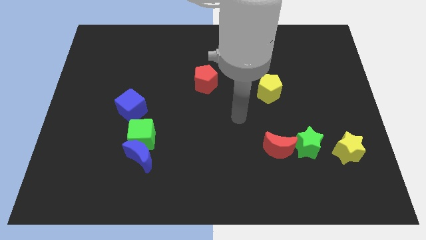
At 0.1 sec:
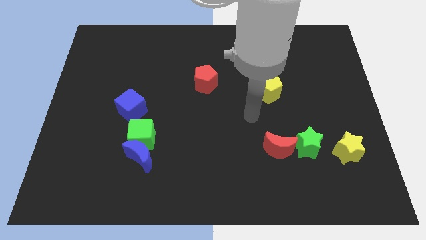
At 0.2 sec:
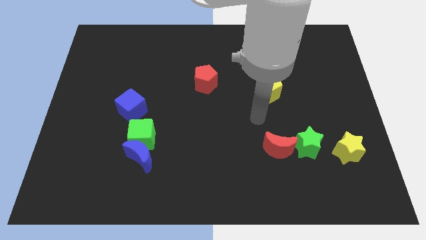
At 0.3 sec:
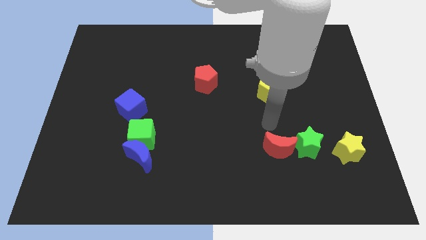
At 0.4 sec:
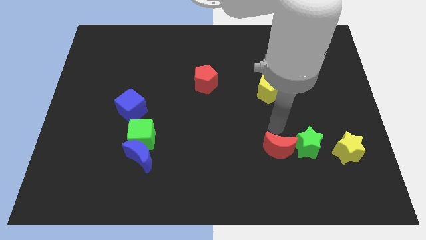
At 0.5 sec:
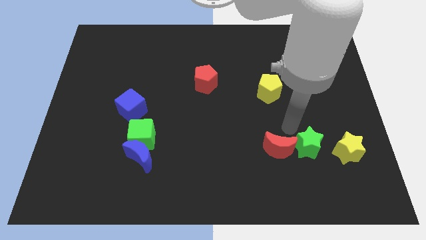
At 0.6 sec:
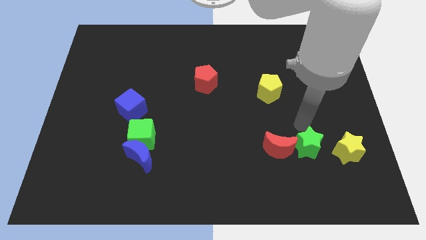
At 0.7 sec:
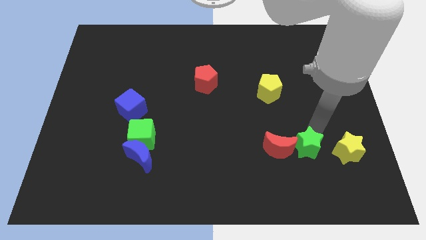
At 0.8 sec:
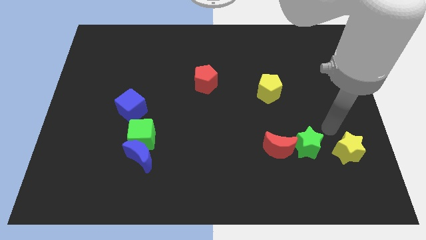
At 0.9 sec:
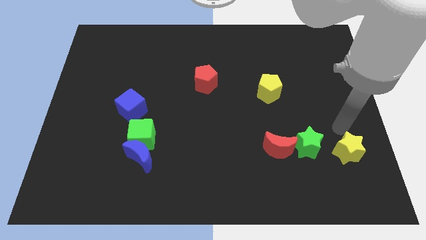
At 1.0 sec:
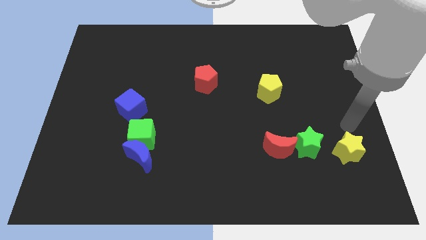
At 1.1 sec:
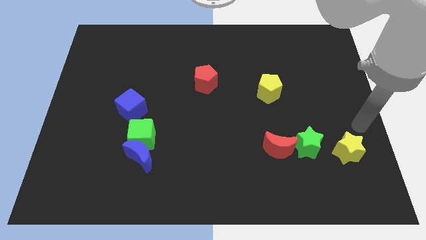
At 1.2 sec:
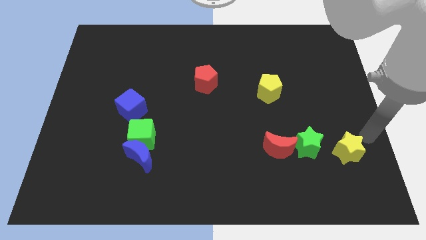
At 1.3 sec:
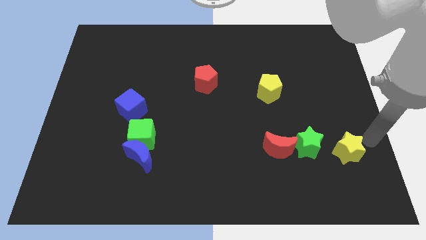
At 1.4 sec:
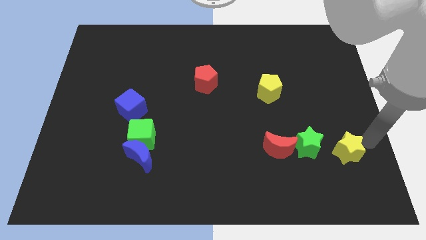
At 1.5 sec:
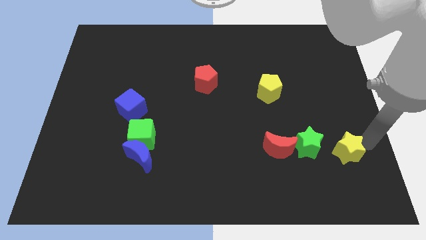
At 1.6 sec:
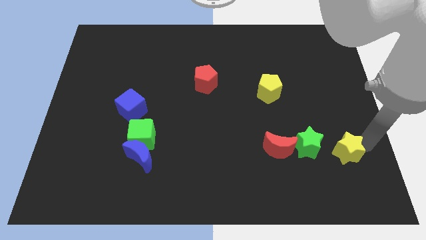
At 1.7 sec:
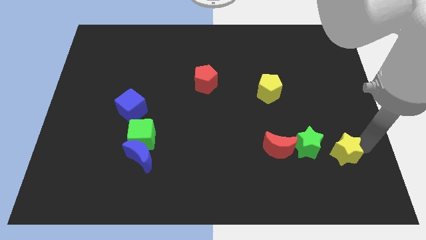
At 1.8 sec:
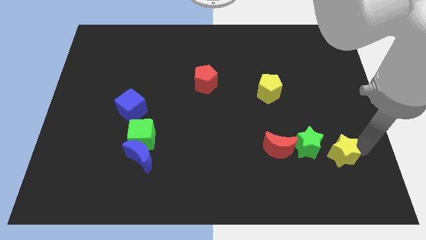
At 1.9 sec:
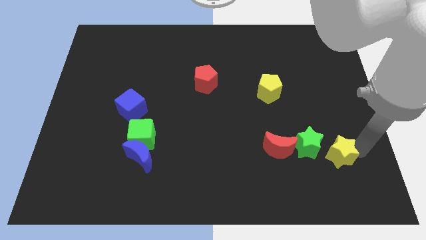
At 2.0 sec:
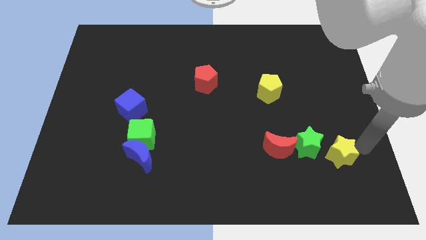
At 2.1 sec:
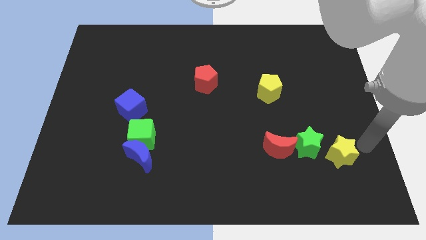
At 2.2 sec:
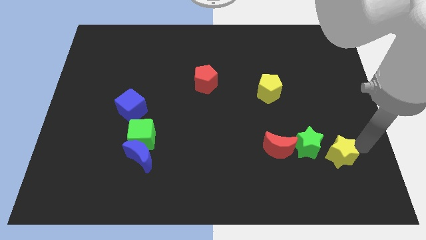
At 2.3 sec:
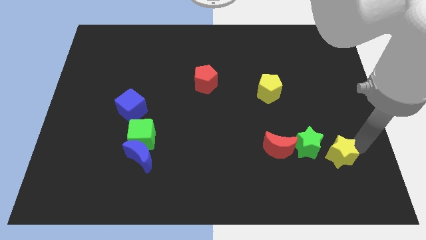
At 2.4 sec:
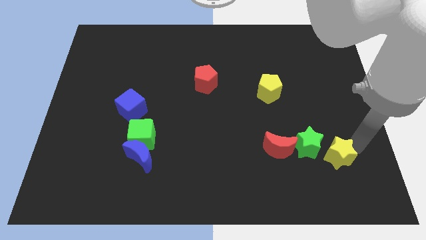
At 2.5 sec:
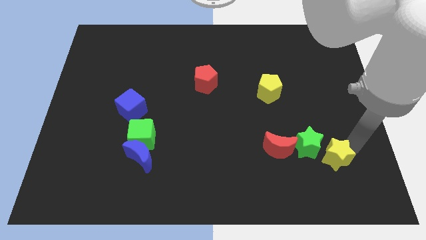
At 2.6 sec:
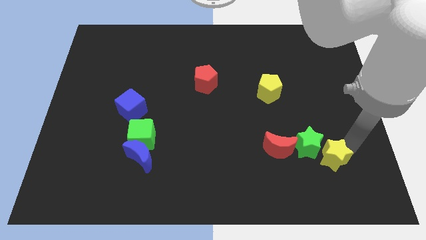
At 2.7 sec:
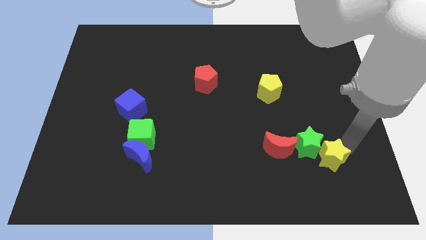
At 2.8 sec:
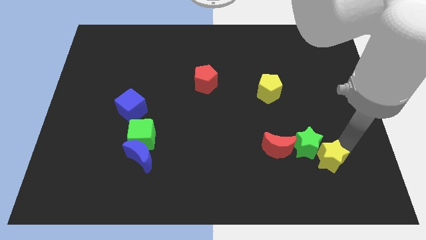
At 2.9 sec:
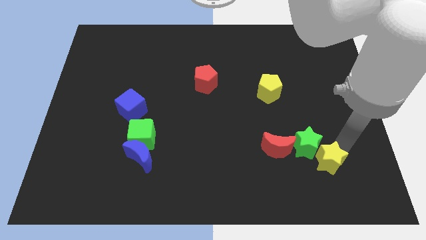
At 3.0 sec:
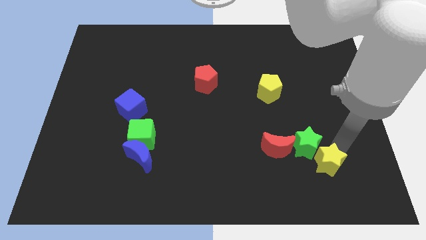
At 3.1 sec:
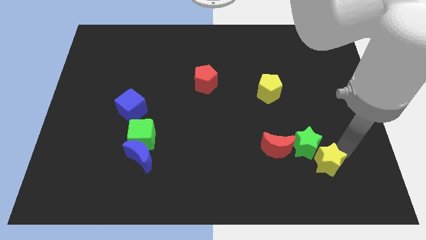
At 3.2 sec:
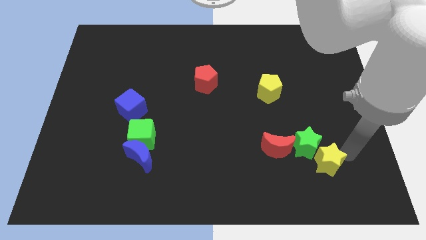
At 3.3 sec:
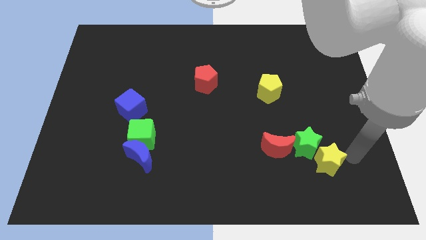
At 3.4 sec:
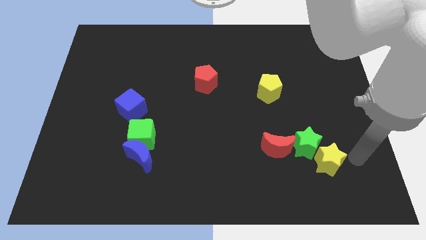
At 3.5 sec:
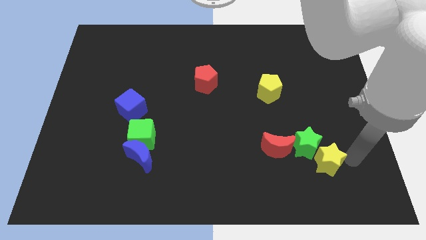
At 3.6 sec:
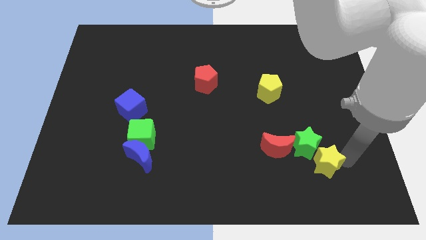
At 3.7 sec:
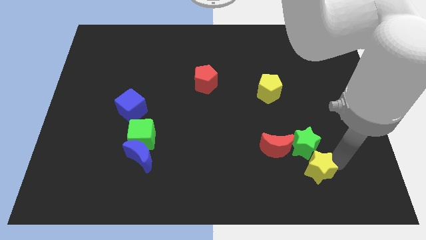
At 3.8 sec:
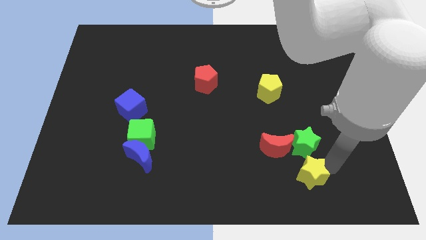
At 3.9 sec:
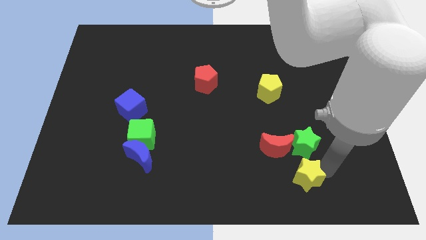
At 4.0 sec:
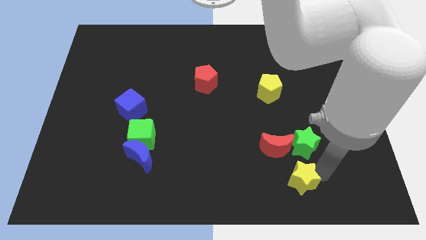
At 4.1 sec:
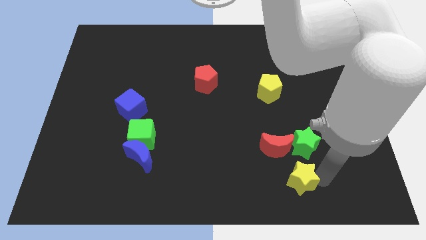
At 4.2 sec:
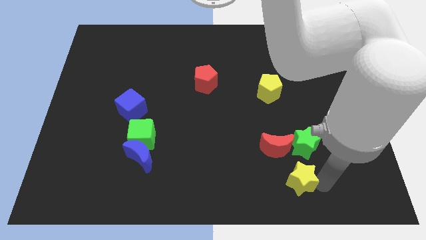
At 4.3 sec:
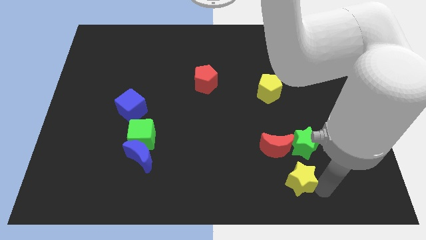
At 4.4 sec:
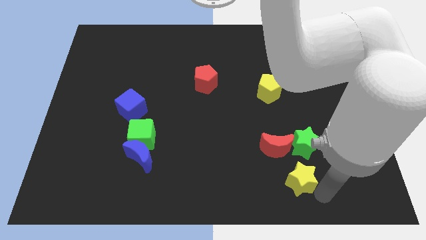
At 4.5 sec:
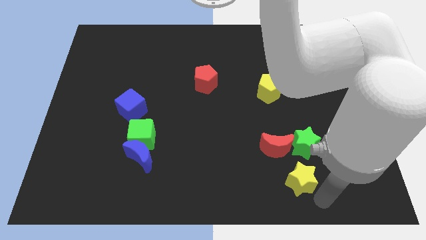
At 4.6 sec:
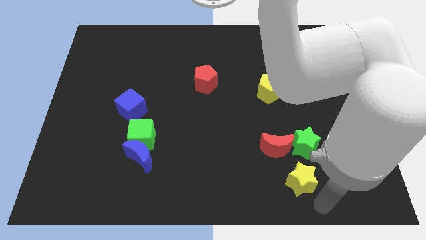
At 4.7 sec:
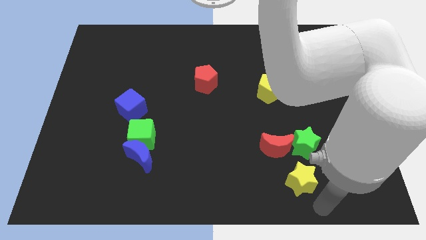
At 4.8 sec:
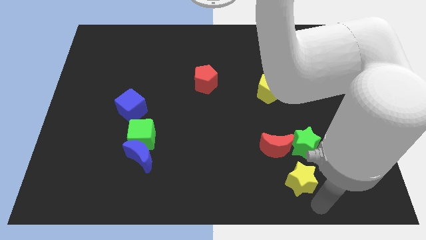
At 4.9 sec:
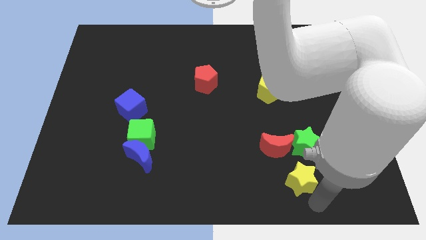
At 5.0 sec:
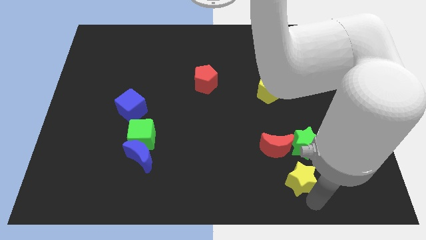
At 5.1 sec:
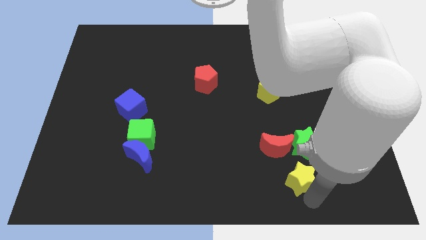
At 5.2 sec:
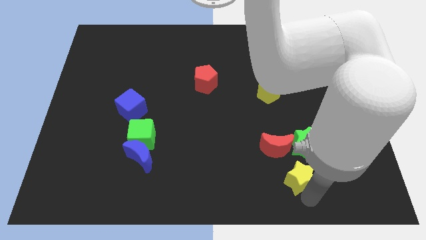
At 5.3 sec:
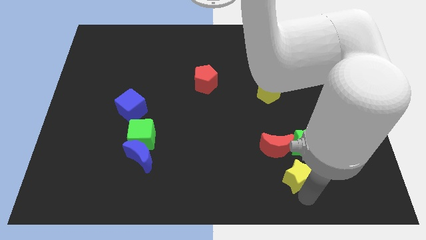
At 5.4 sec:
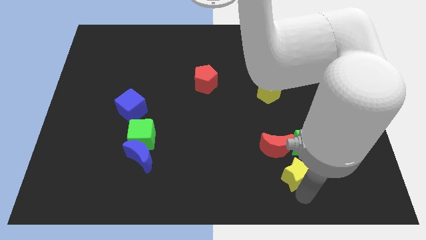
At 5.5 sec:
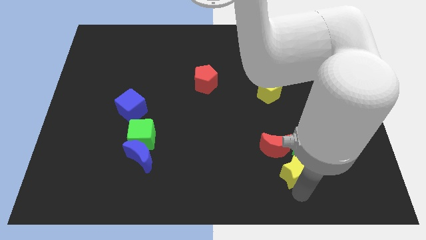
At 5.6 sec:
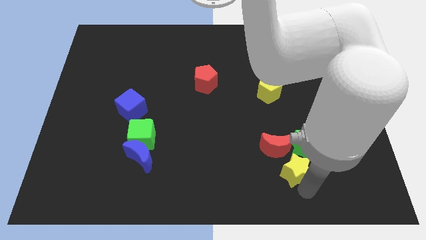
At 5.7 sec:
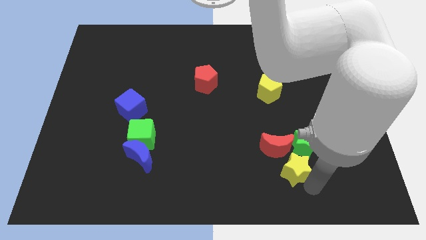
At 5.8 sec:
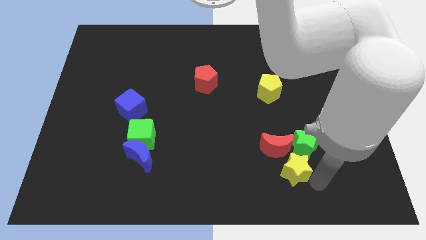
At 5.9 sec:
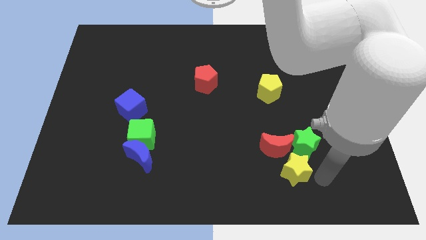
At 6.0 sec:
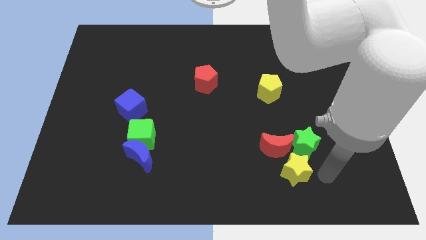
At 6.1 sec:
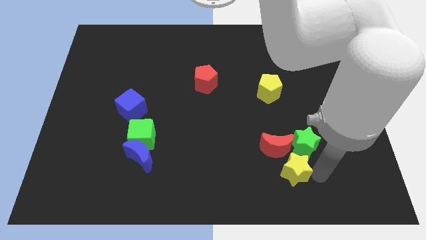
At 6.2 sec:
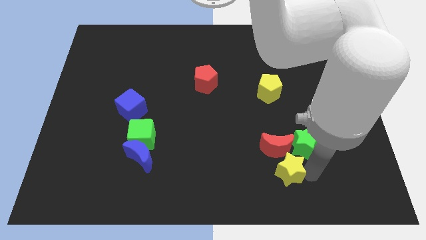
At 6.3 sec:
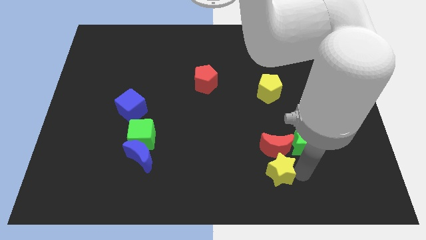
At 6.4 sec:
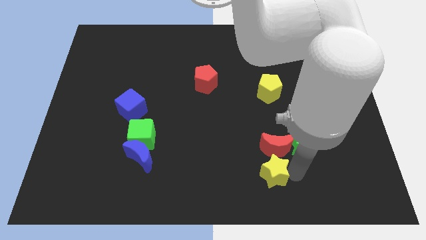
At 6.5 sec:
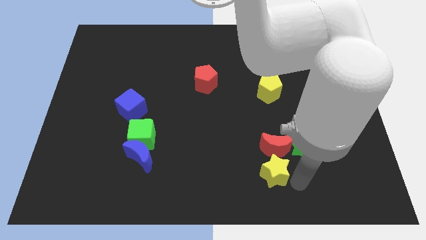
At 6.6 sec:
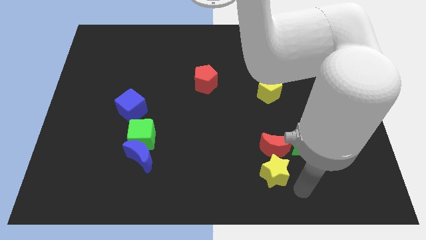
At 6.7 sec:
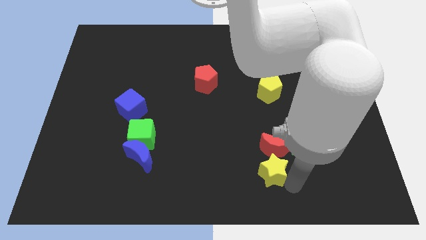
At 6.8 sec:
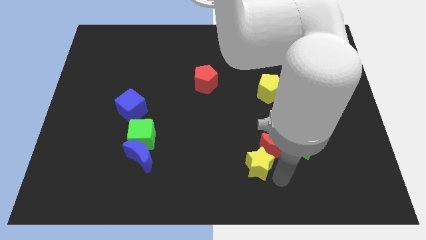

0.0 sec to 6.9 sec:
move the yellow star left of the red moon

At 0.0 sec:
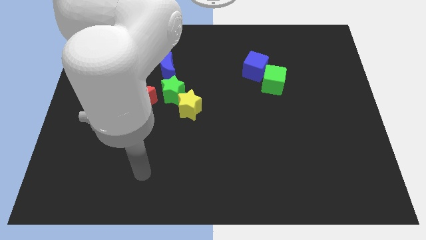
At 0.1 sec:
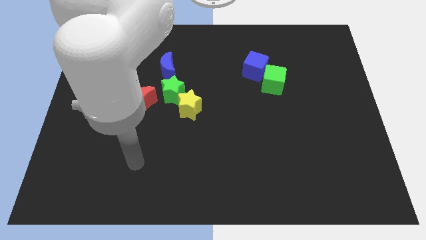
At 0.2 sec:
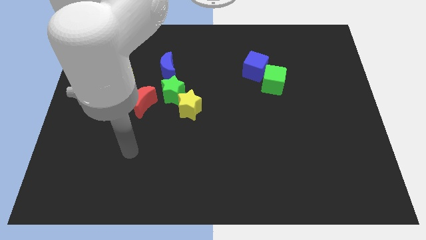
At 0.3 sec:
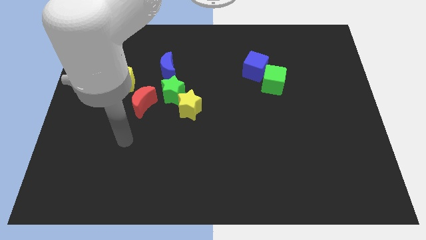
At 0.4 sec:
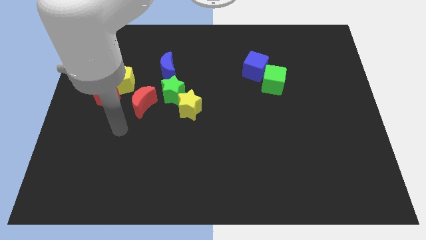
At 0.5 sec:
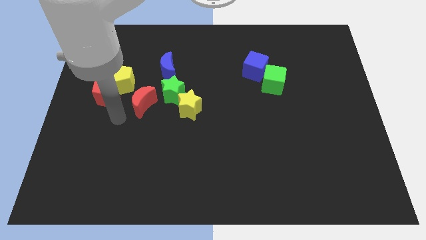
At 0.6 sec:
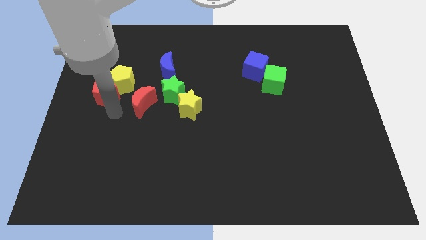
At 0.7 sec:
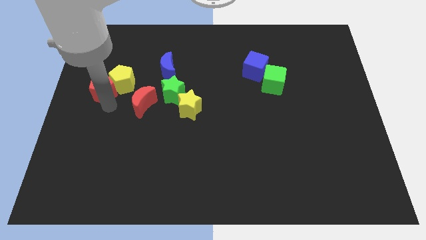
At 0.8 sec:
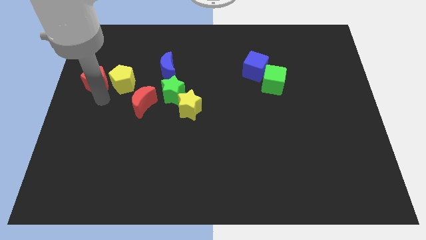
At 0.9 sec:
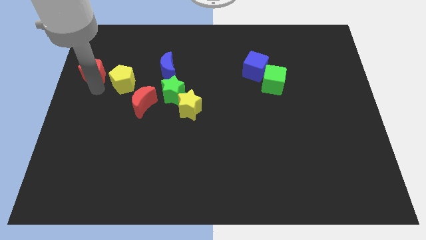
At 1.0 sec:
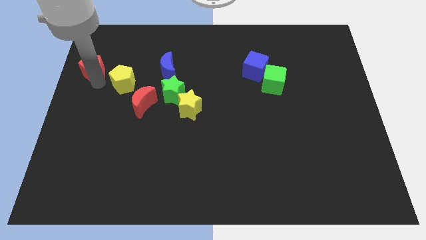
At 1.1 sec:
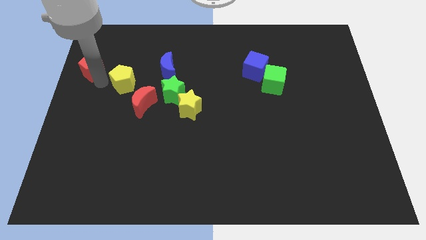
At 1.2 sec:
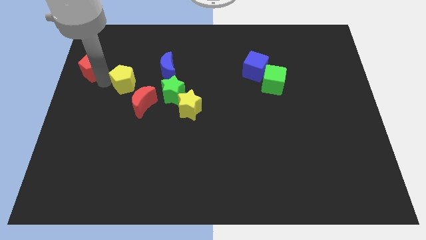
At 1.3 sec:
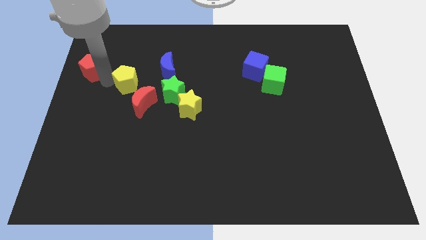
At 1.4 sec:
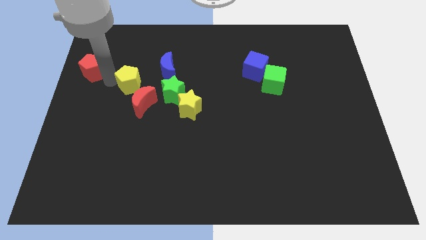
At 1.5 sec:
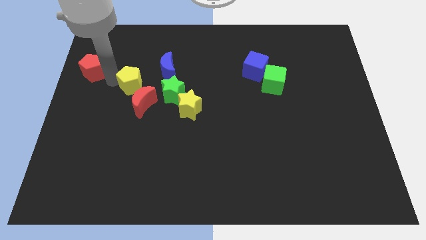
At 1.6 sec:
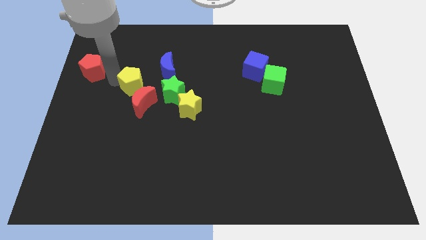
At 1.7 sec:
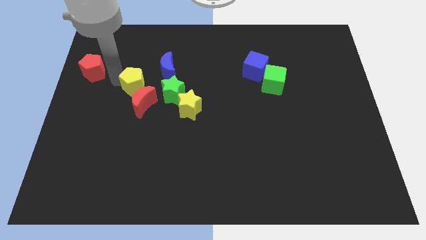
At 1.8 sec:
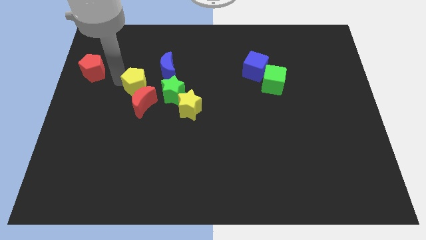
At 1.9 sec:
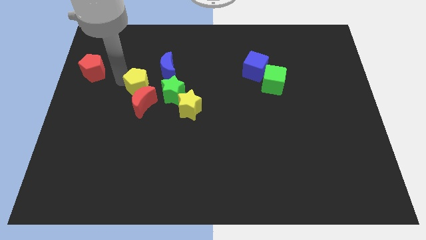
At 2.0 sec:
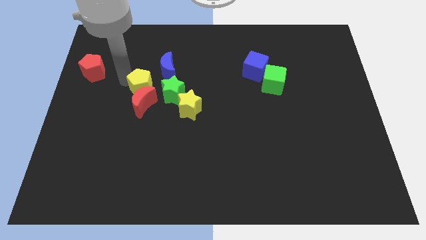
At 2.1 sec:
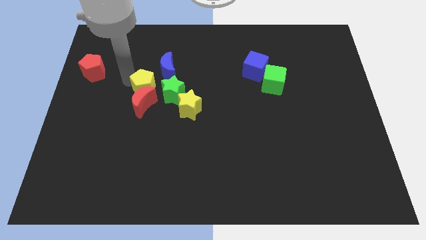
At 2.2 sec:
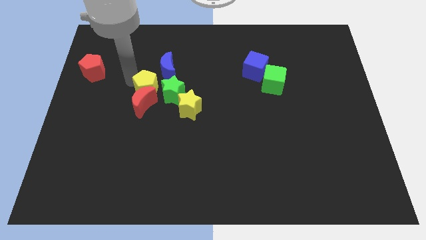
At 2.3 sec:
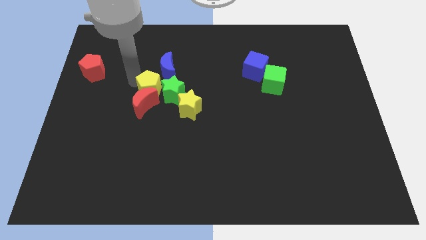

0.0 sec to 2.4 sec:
slide the yellow pentagon diagonally up and to the left of the yellow star
